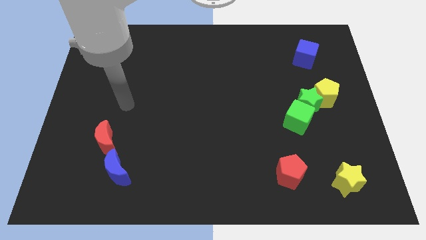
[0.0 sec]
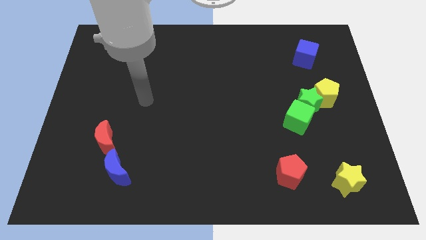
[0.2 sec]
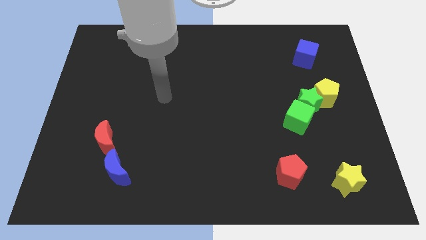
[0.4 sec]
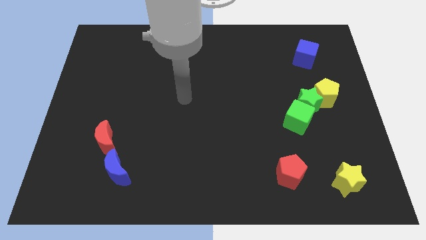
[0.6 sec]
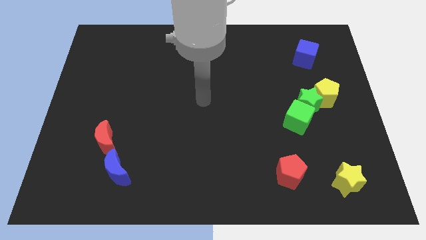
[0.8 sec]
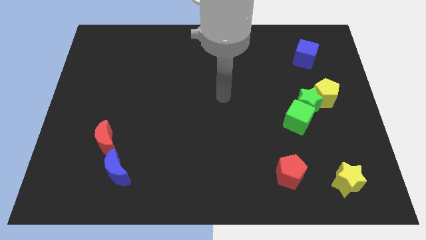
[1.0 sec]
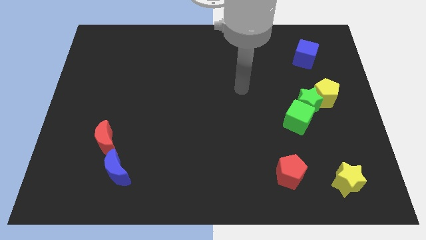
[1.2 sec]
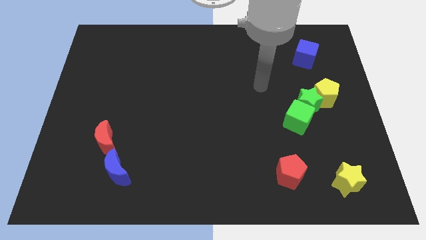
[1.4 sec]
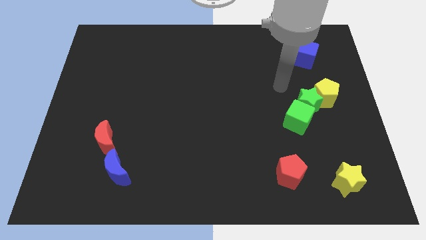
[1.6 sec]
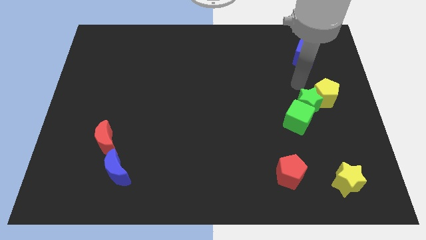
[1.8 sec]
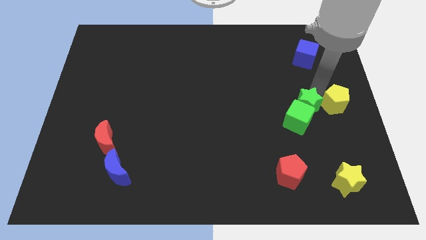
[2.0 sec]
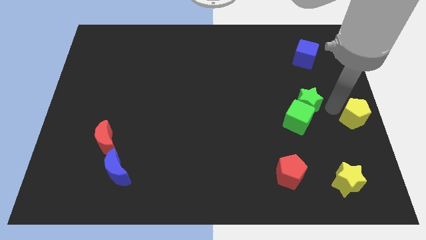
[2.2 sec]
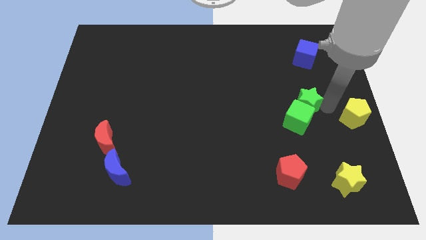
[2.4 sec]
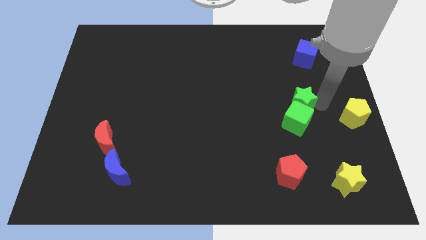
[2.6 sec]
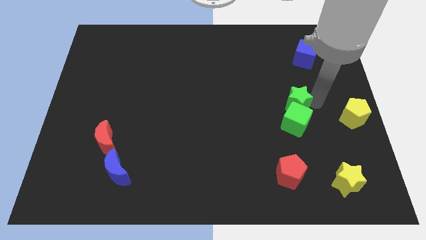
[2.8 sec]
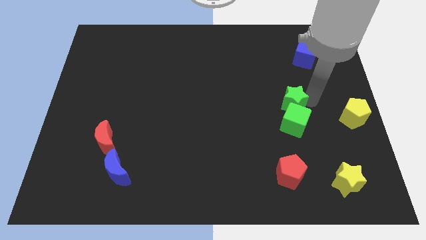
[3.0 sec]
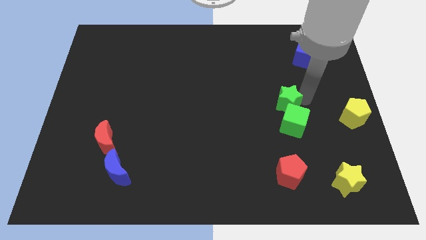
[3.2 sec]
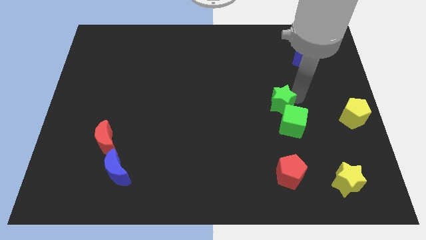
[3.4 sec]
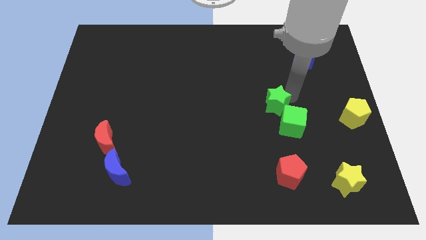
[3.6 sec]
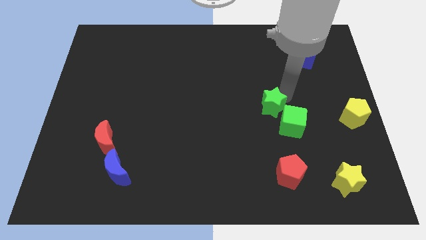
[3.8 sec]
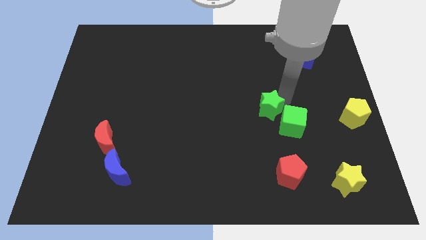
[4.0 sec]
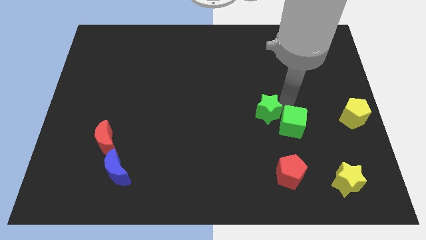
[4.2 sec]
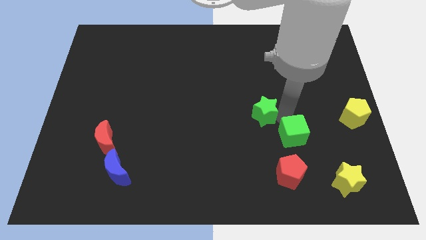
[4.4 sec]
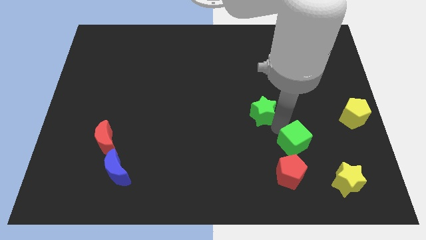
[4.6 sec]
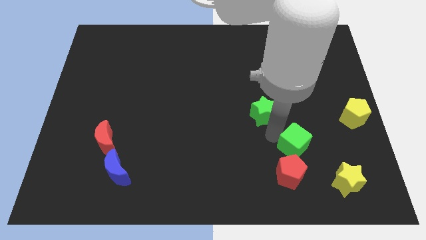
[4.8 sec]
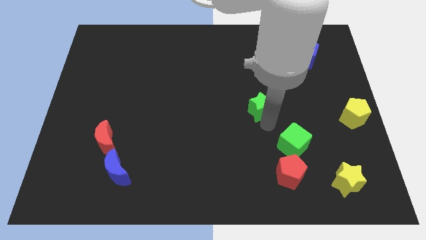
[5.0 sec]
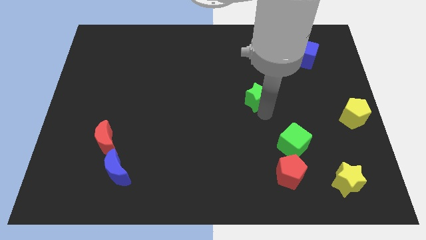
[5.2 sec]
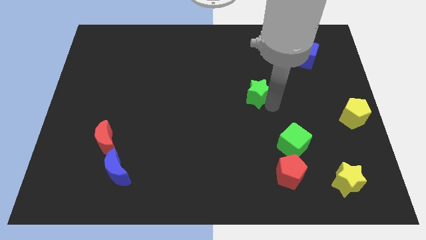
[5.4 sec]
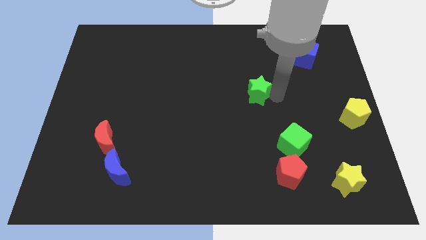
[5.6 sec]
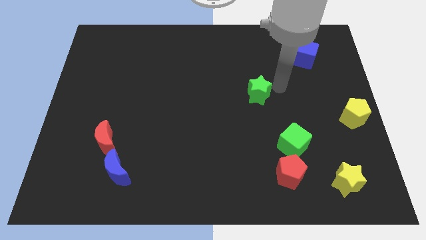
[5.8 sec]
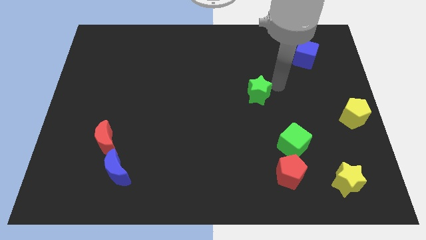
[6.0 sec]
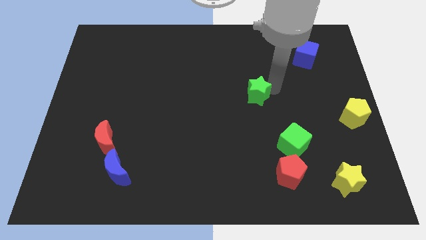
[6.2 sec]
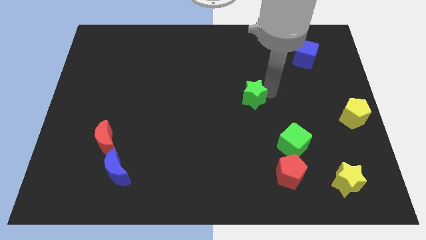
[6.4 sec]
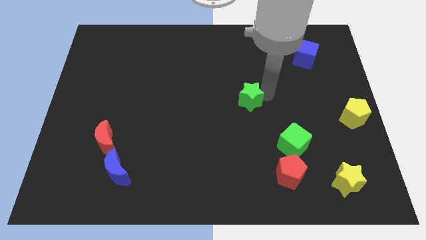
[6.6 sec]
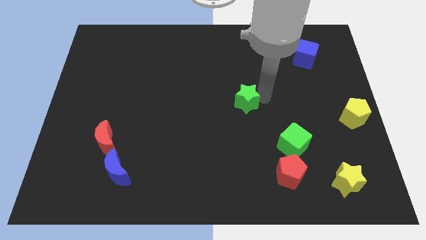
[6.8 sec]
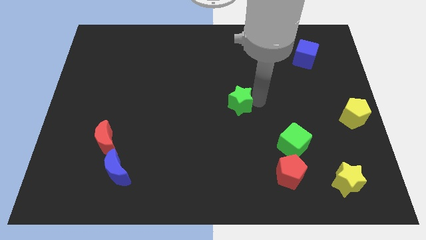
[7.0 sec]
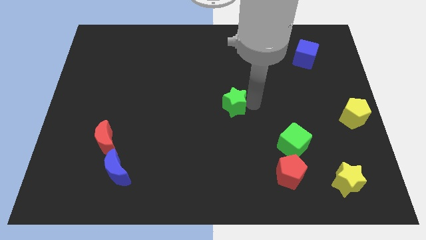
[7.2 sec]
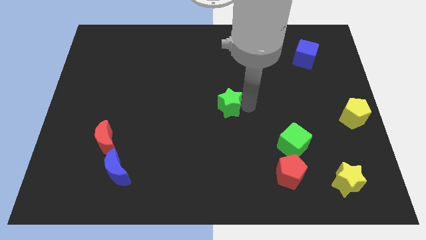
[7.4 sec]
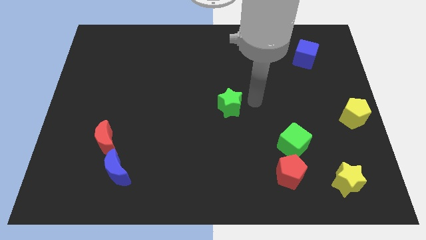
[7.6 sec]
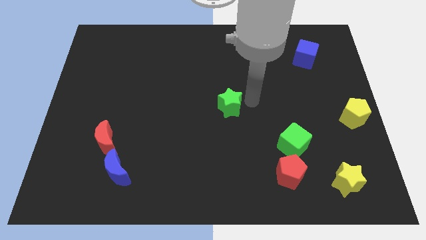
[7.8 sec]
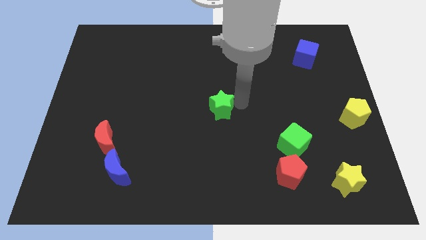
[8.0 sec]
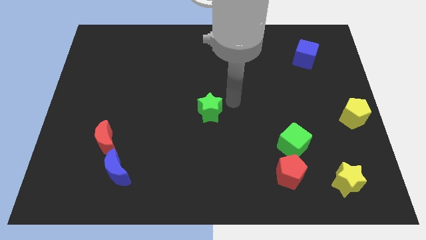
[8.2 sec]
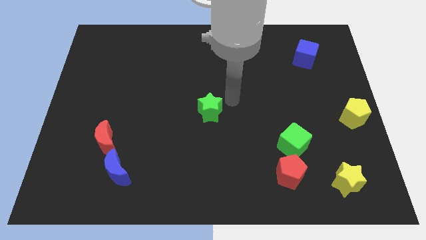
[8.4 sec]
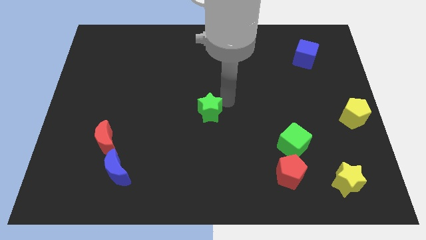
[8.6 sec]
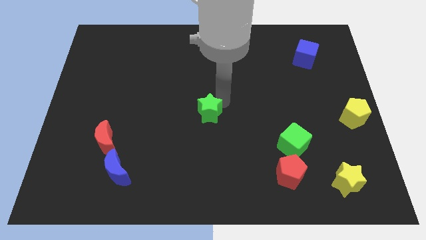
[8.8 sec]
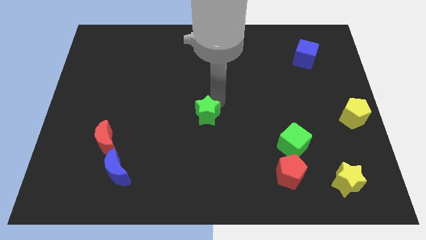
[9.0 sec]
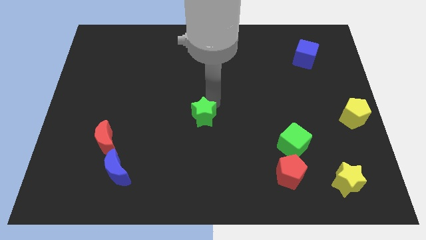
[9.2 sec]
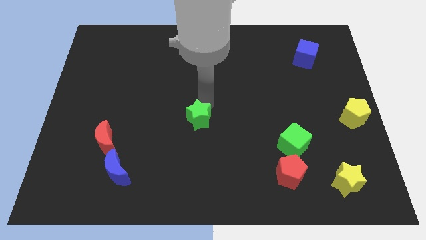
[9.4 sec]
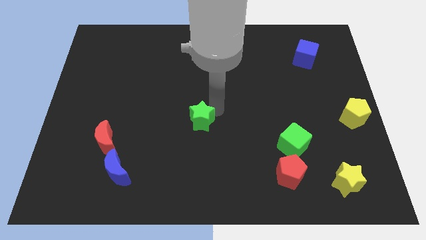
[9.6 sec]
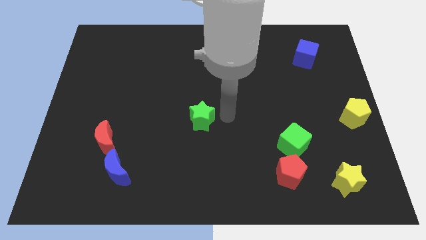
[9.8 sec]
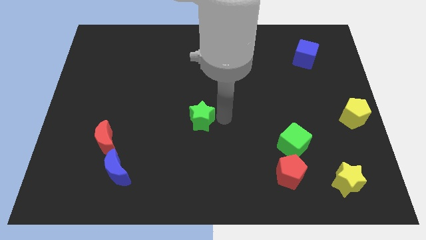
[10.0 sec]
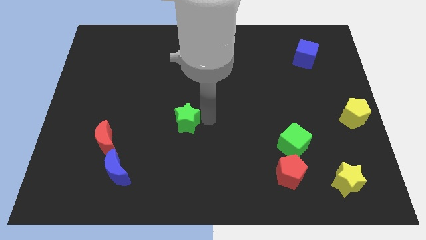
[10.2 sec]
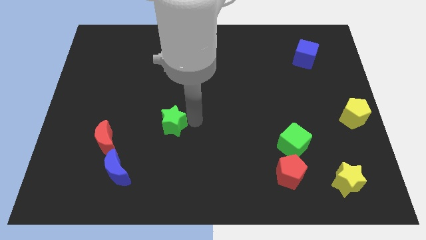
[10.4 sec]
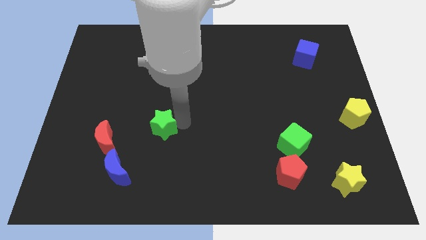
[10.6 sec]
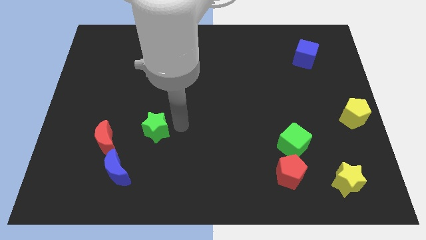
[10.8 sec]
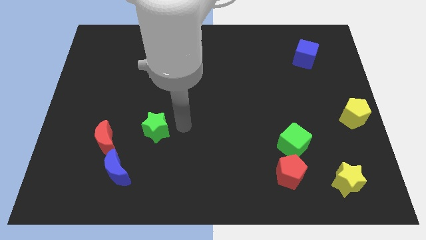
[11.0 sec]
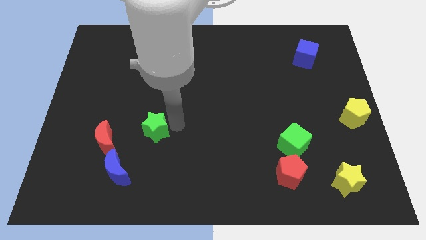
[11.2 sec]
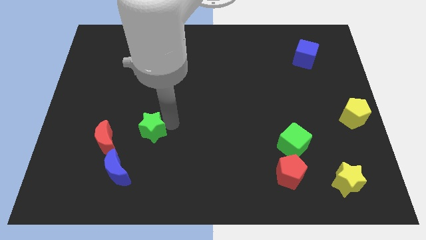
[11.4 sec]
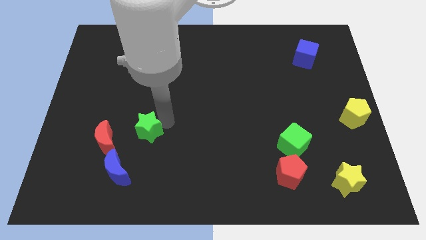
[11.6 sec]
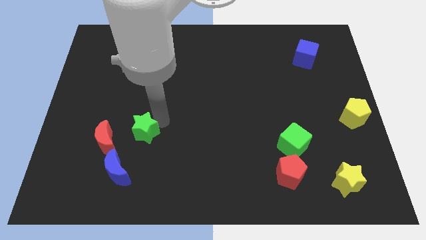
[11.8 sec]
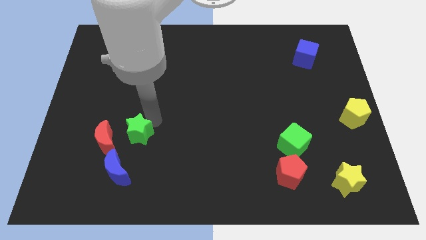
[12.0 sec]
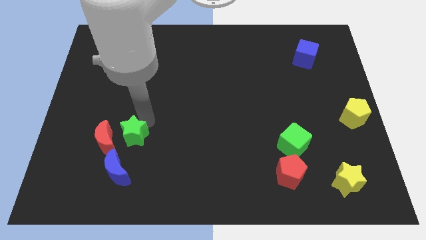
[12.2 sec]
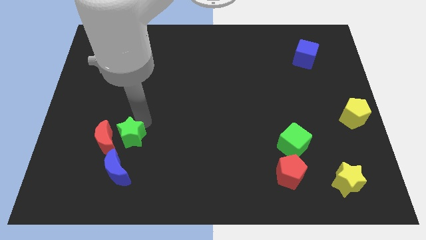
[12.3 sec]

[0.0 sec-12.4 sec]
put the green star next to the red moon

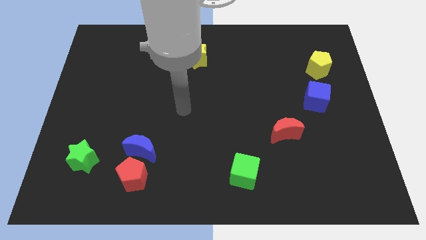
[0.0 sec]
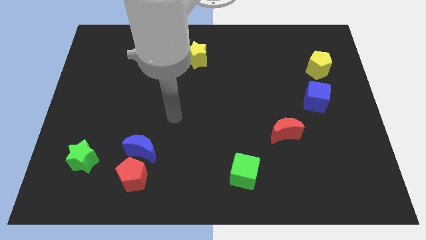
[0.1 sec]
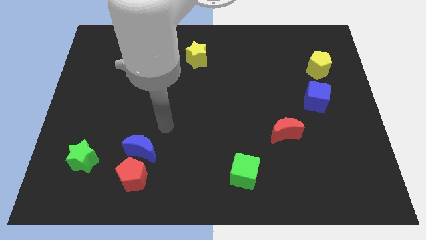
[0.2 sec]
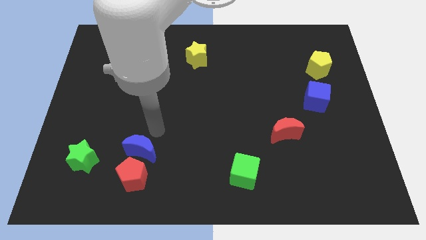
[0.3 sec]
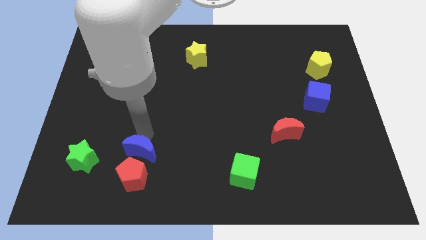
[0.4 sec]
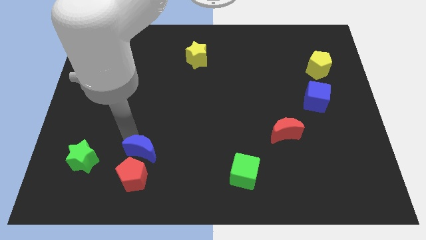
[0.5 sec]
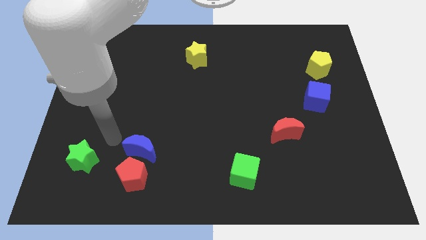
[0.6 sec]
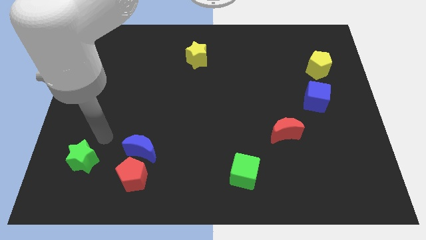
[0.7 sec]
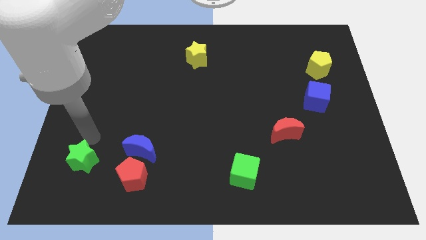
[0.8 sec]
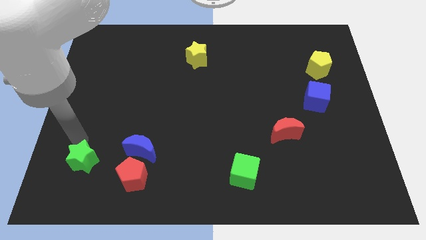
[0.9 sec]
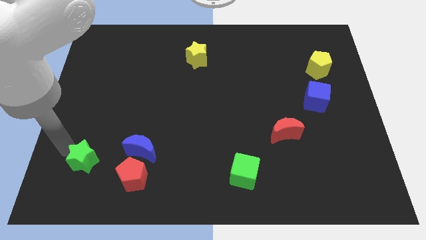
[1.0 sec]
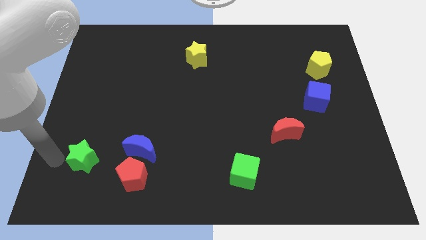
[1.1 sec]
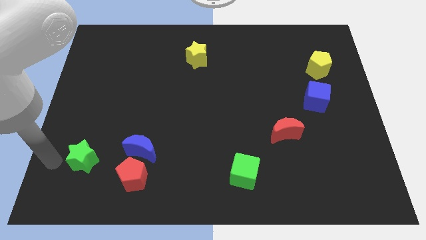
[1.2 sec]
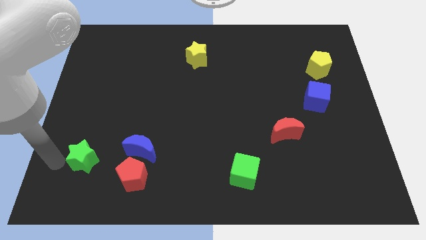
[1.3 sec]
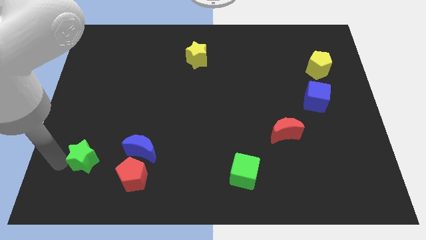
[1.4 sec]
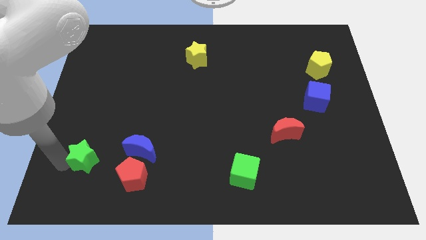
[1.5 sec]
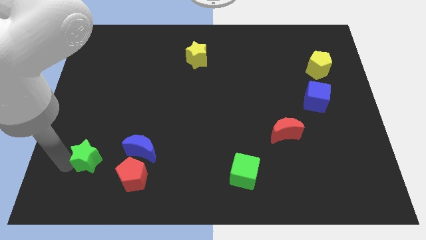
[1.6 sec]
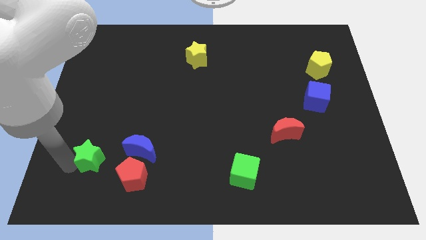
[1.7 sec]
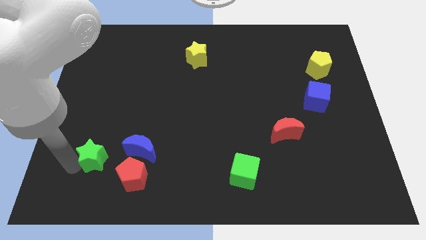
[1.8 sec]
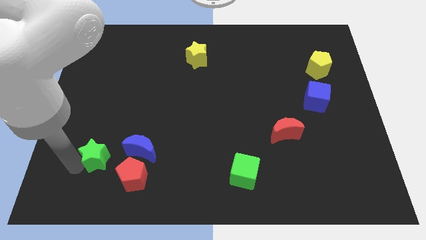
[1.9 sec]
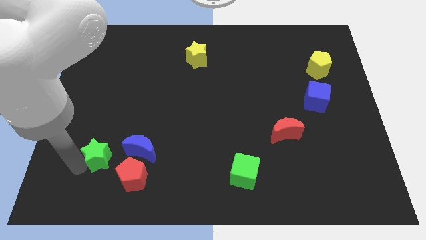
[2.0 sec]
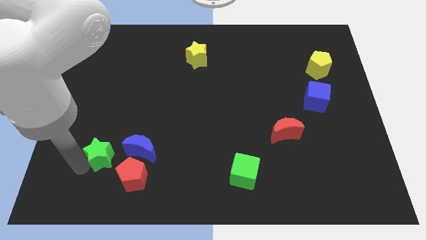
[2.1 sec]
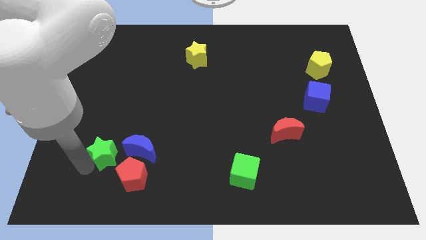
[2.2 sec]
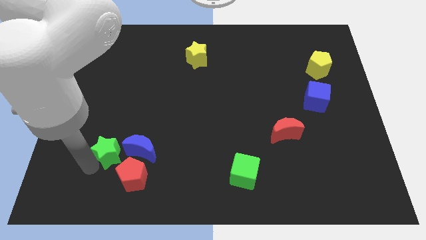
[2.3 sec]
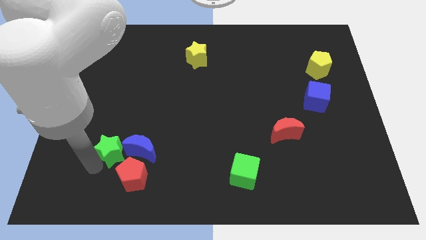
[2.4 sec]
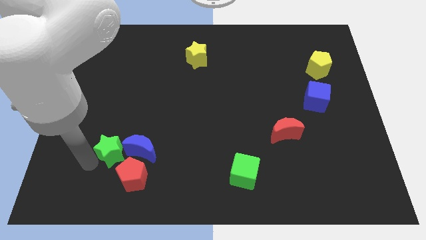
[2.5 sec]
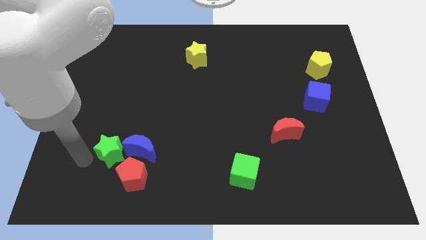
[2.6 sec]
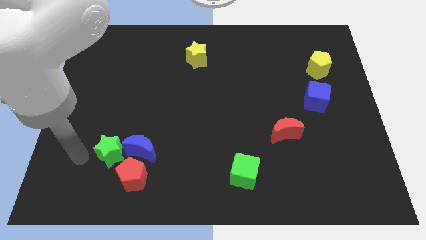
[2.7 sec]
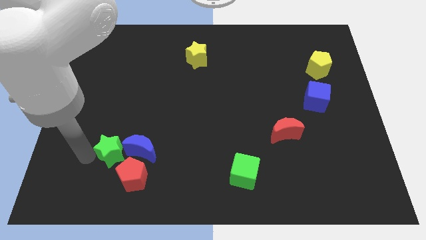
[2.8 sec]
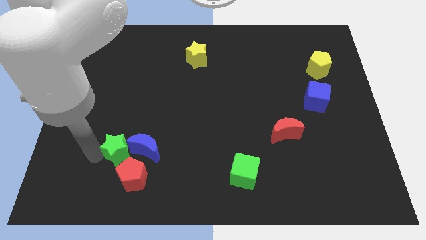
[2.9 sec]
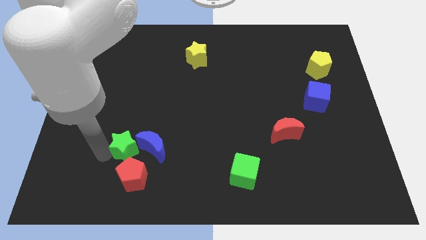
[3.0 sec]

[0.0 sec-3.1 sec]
push the green star close to the blue moon
